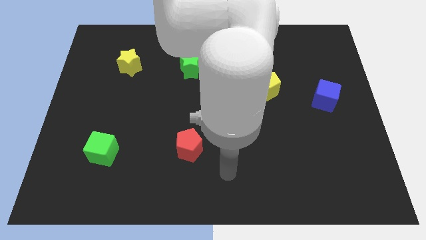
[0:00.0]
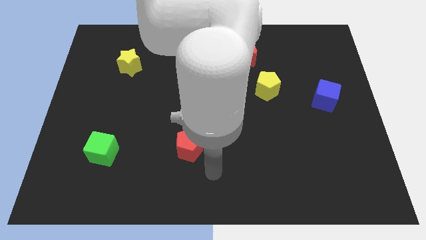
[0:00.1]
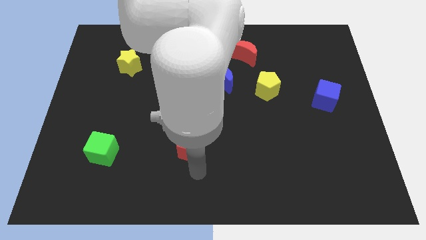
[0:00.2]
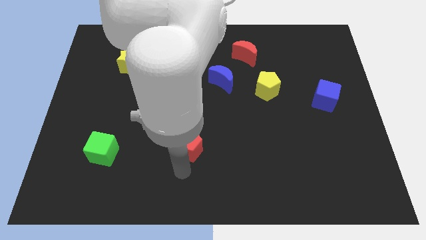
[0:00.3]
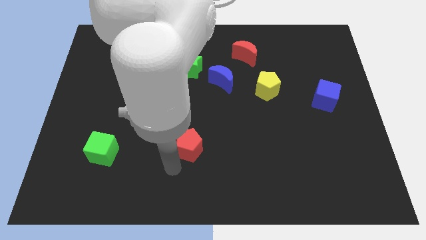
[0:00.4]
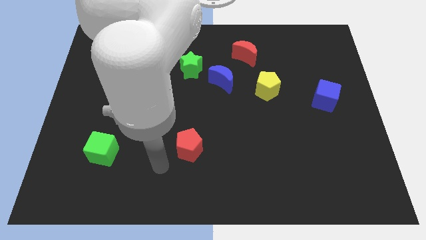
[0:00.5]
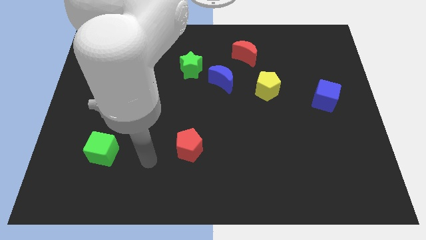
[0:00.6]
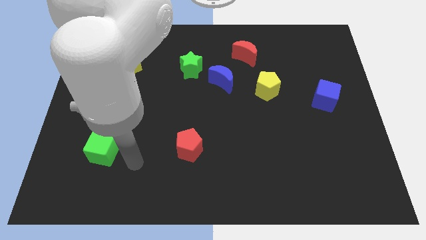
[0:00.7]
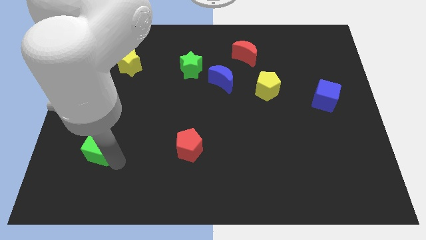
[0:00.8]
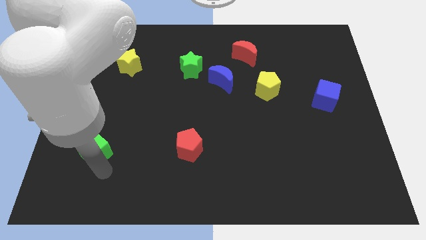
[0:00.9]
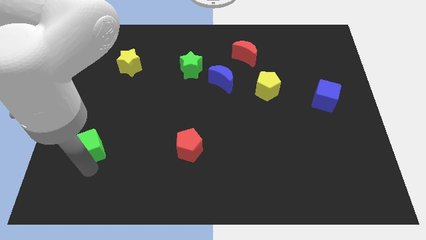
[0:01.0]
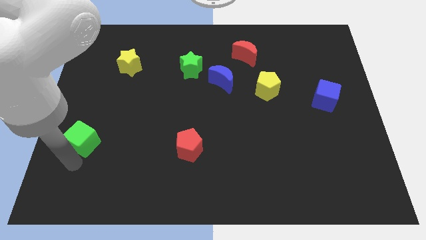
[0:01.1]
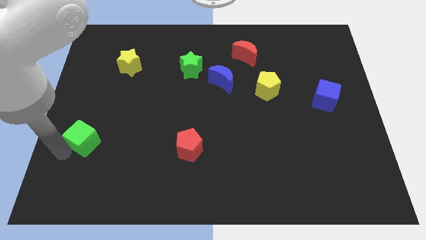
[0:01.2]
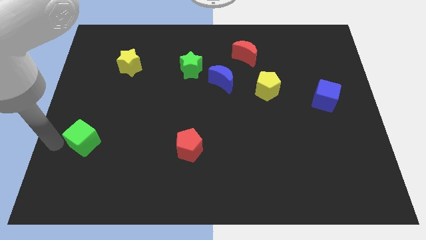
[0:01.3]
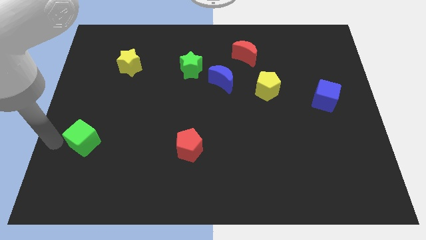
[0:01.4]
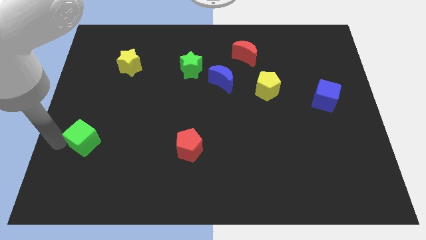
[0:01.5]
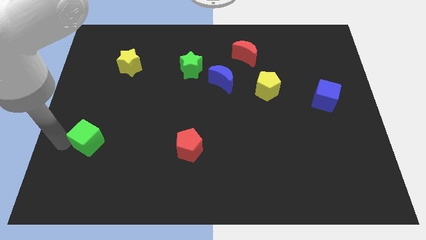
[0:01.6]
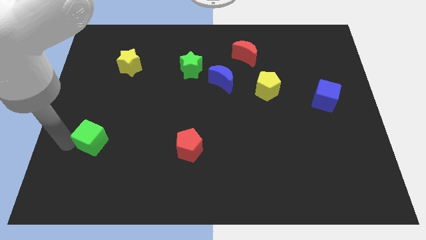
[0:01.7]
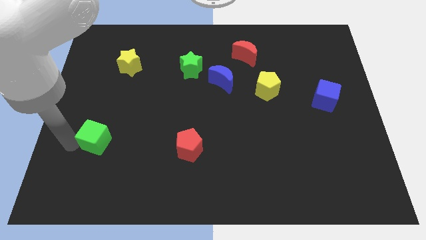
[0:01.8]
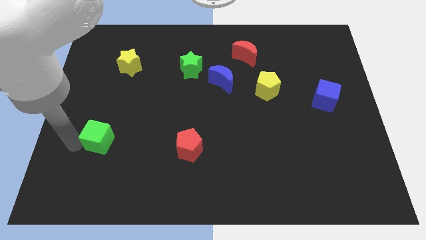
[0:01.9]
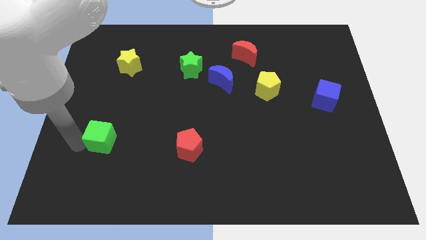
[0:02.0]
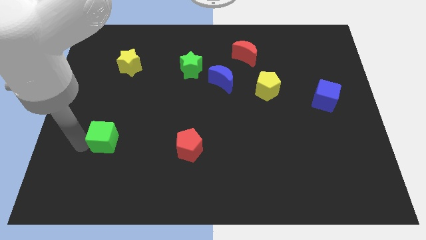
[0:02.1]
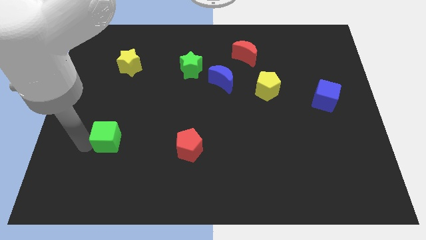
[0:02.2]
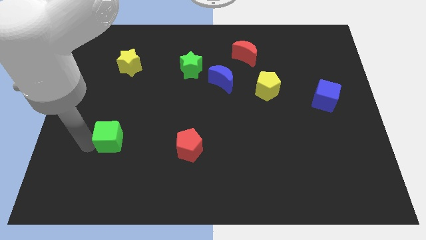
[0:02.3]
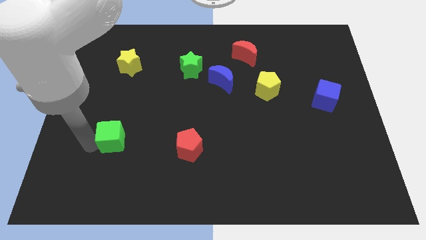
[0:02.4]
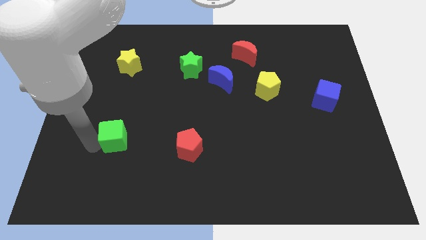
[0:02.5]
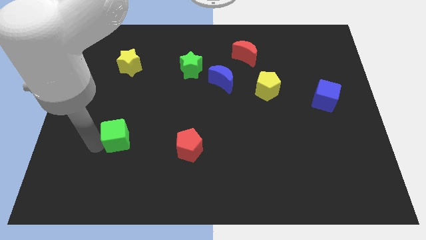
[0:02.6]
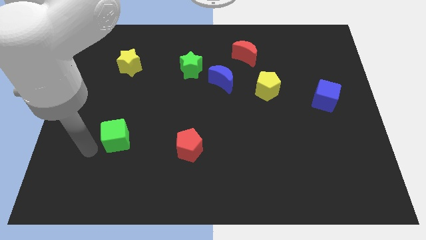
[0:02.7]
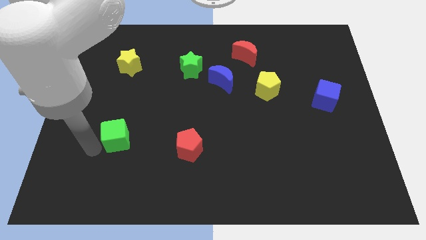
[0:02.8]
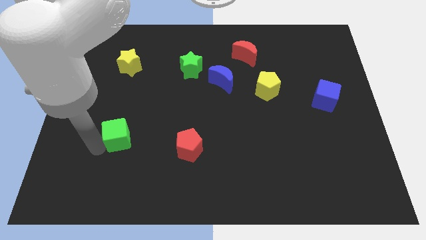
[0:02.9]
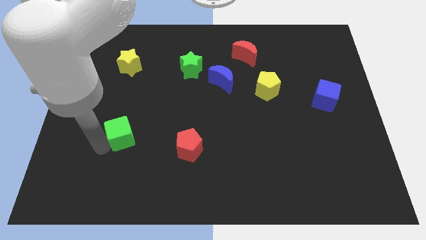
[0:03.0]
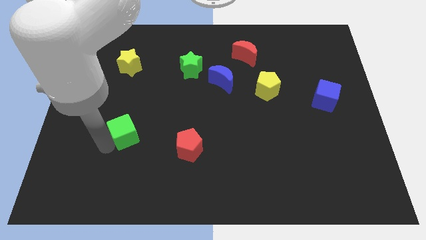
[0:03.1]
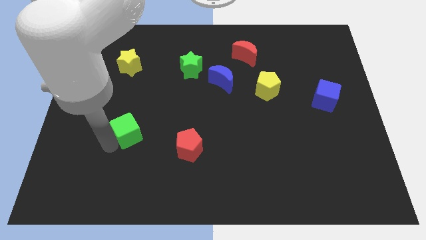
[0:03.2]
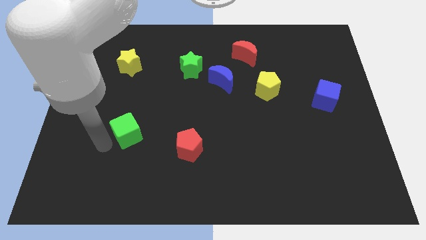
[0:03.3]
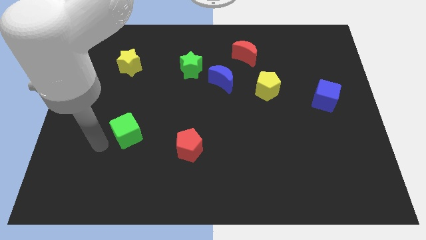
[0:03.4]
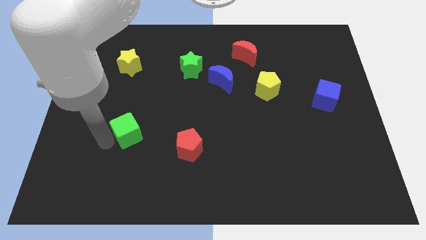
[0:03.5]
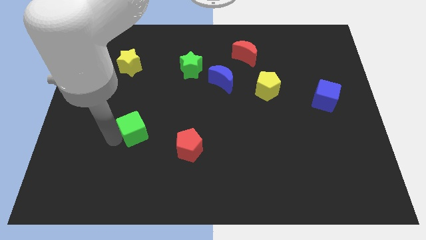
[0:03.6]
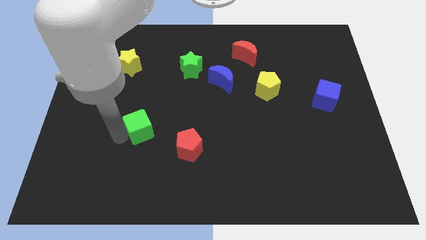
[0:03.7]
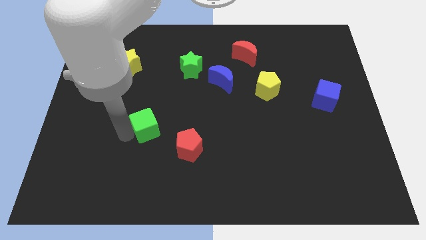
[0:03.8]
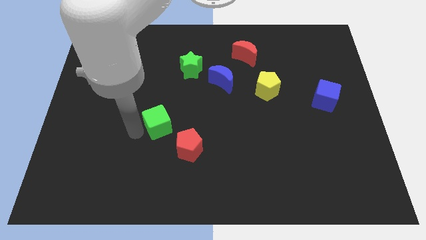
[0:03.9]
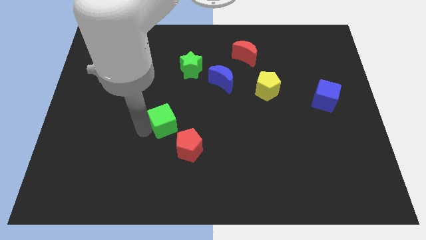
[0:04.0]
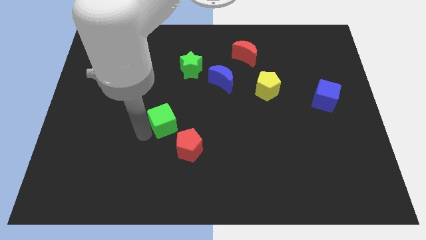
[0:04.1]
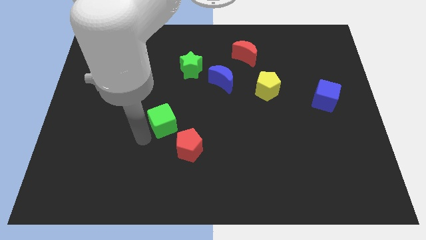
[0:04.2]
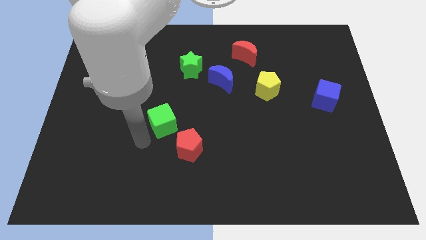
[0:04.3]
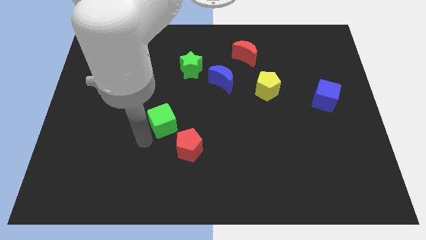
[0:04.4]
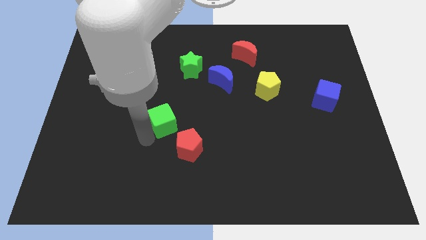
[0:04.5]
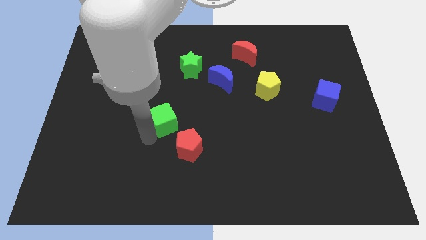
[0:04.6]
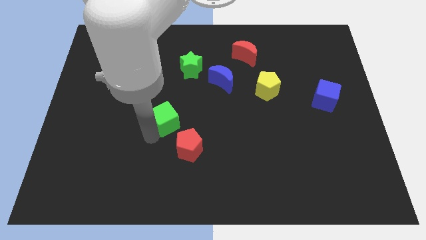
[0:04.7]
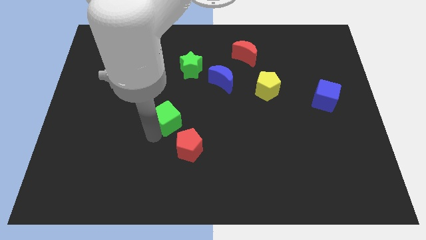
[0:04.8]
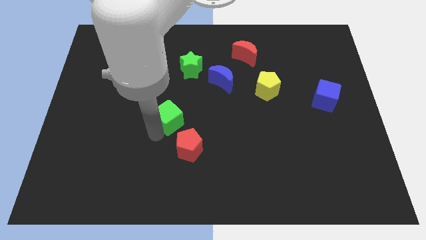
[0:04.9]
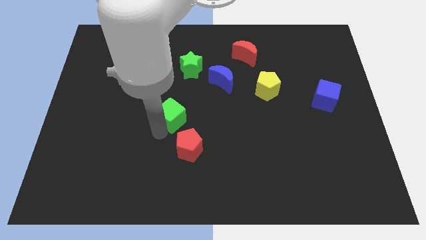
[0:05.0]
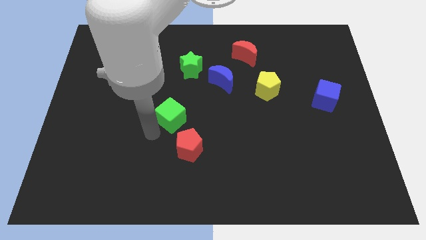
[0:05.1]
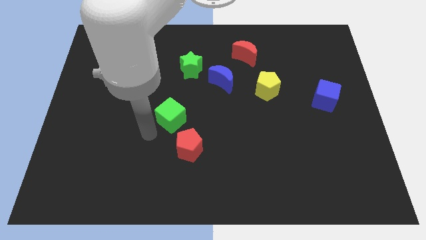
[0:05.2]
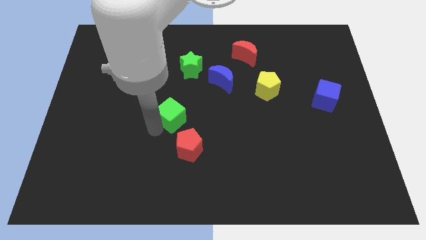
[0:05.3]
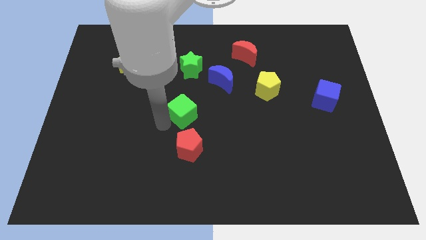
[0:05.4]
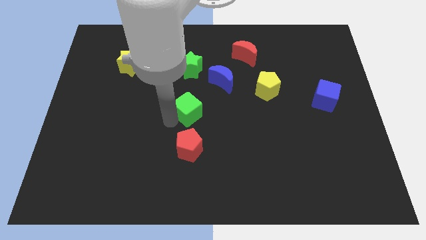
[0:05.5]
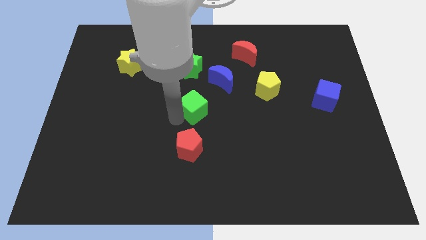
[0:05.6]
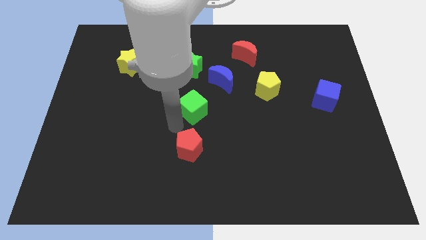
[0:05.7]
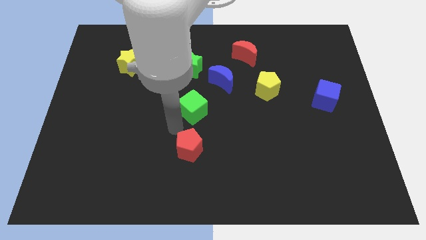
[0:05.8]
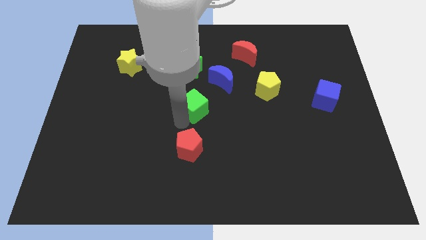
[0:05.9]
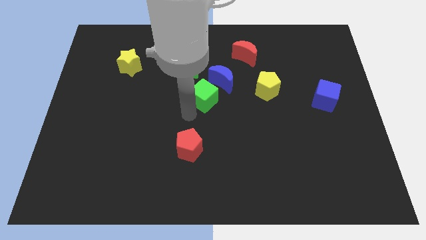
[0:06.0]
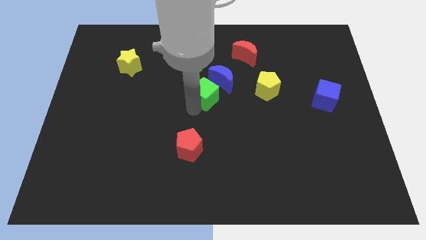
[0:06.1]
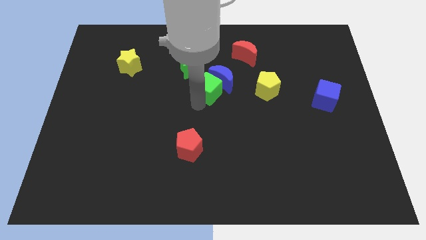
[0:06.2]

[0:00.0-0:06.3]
put the green cube to the blue moon

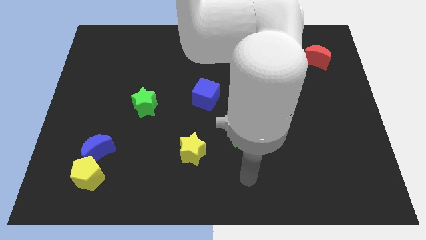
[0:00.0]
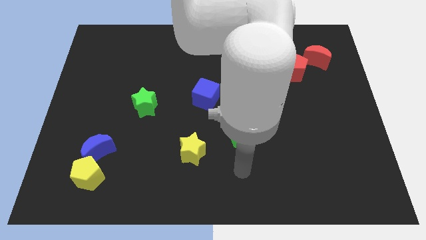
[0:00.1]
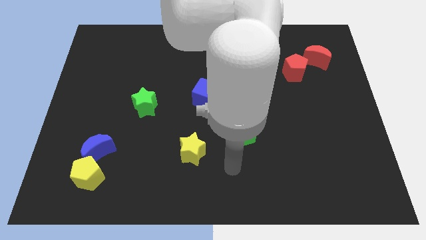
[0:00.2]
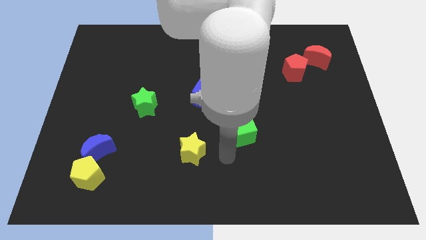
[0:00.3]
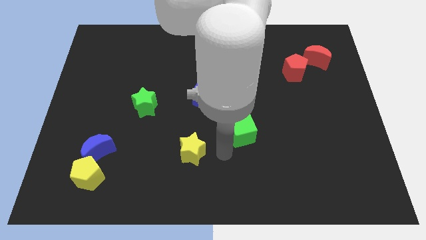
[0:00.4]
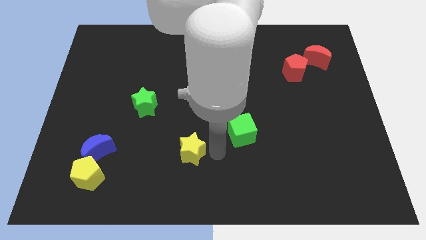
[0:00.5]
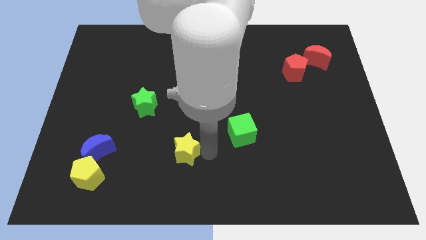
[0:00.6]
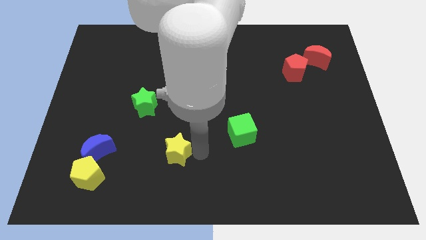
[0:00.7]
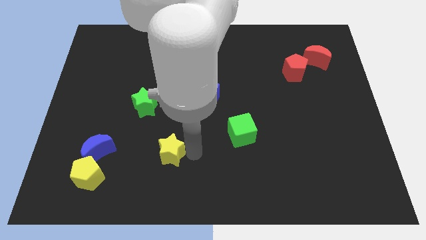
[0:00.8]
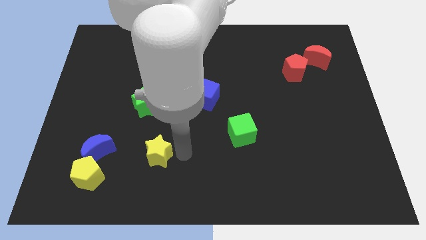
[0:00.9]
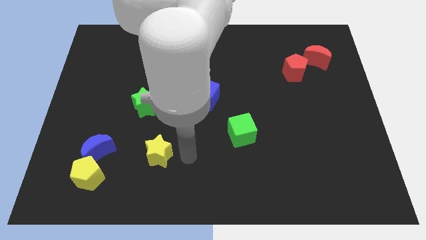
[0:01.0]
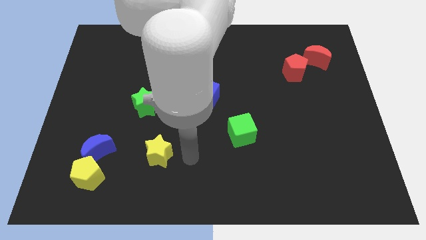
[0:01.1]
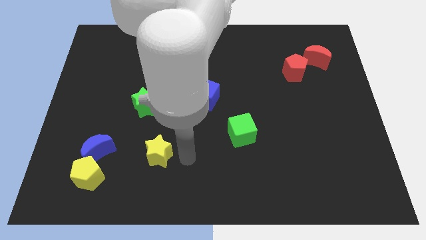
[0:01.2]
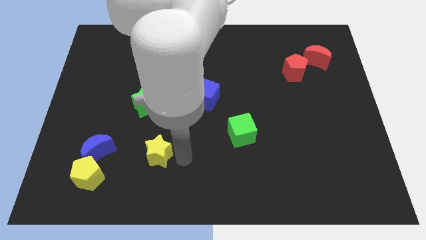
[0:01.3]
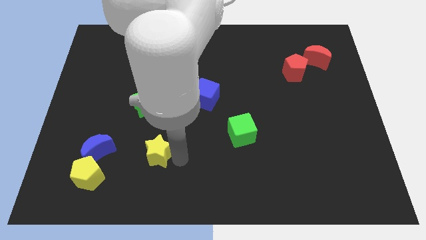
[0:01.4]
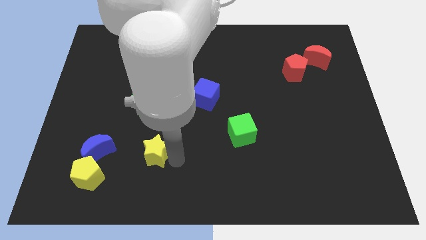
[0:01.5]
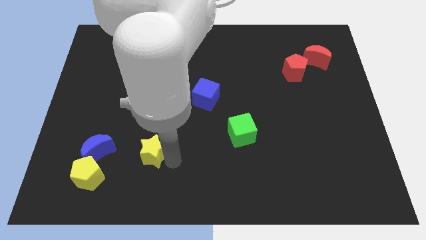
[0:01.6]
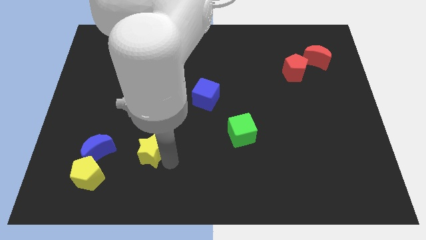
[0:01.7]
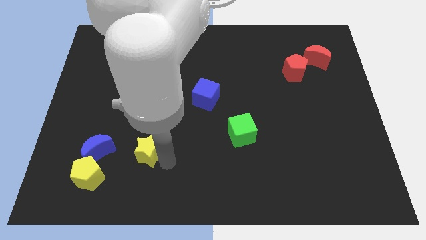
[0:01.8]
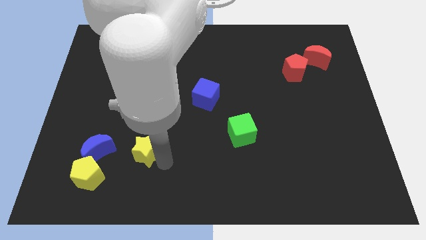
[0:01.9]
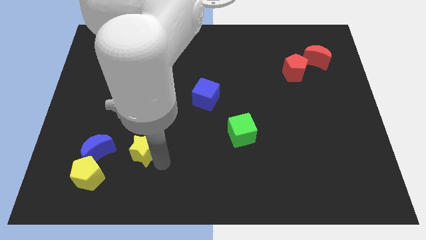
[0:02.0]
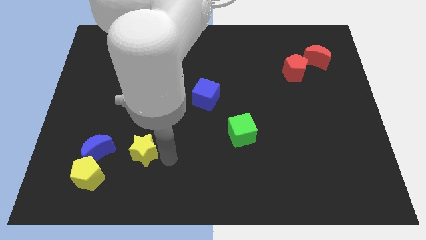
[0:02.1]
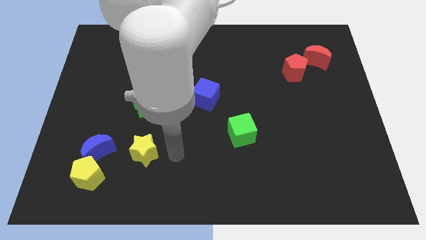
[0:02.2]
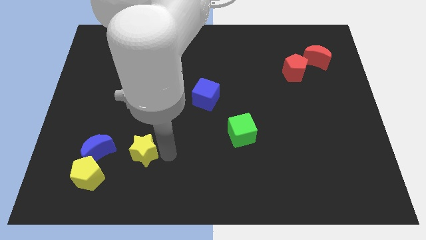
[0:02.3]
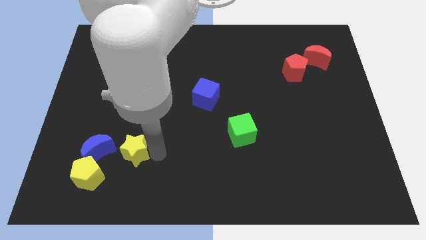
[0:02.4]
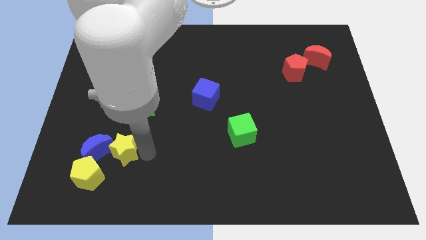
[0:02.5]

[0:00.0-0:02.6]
slide the yellow star to the blue moon
